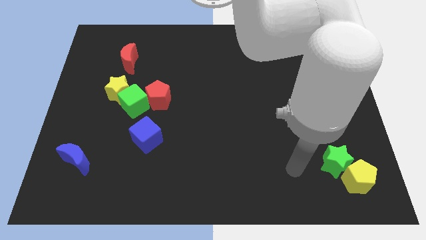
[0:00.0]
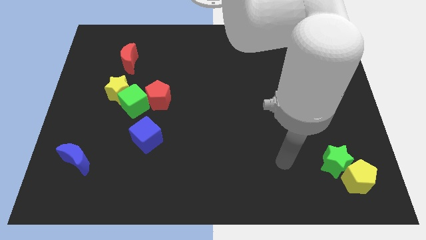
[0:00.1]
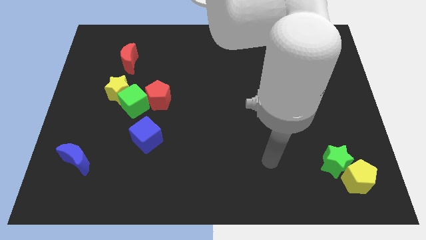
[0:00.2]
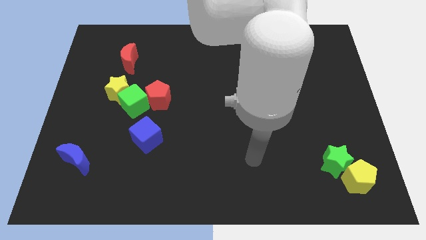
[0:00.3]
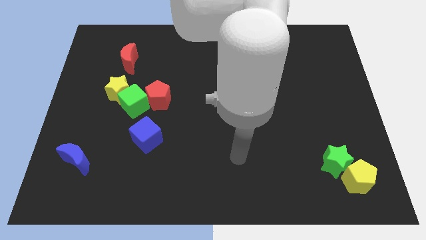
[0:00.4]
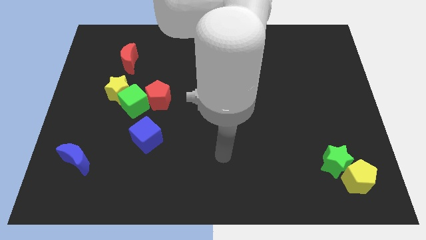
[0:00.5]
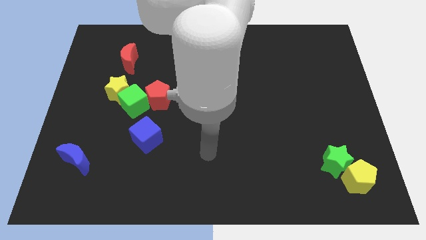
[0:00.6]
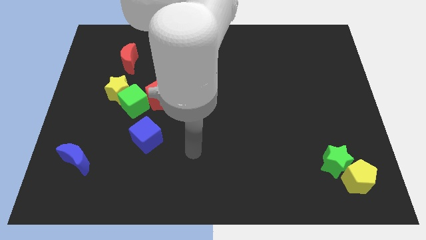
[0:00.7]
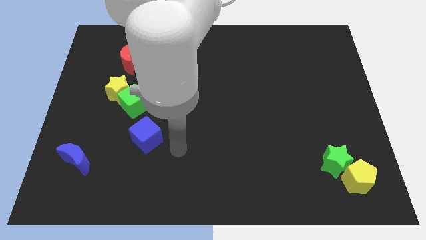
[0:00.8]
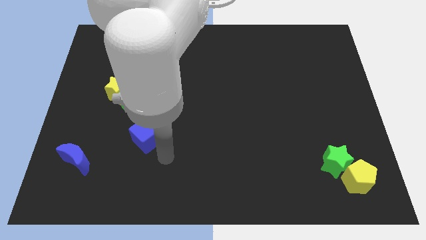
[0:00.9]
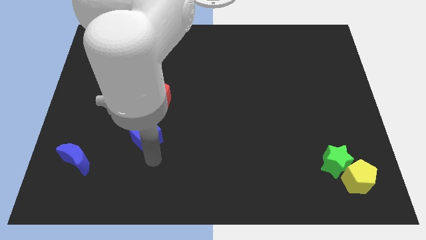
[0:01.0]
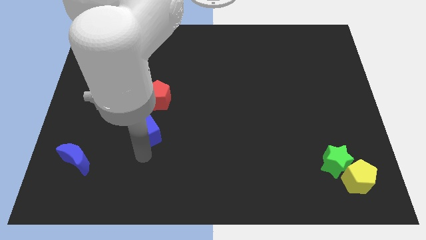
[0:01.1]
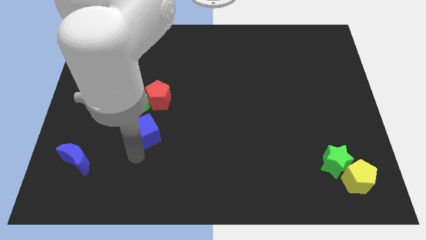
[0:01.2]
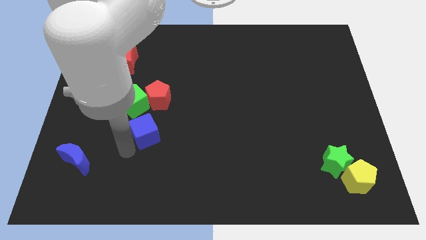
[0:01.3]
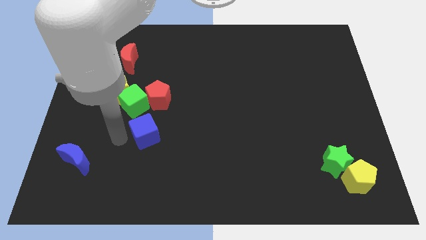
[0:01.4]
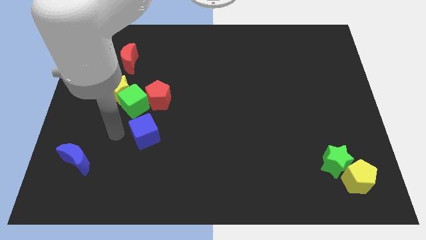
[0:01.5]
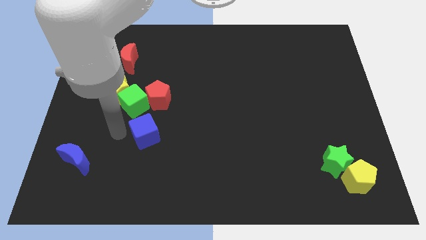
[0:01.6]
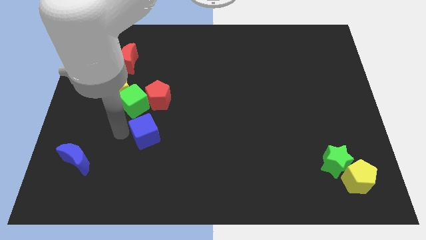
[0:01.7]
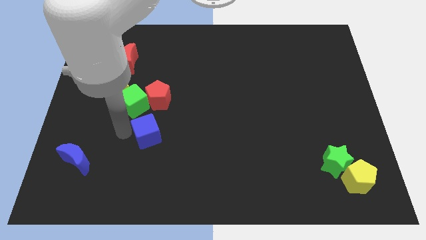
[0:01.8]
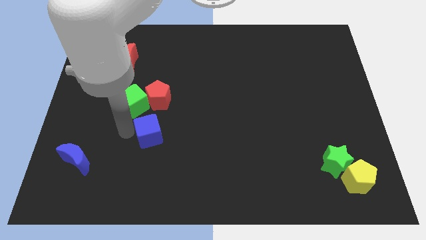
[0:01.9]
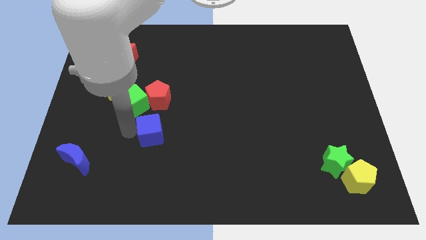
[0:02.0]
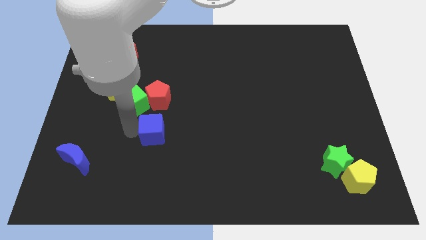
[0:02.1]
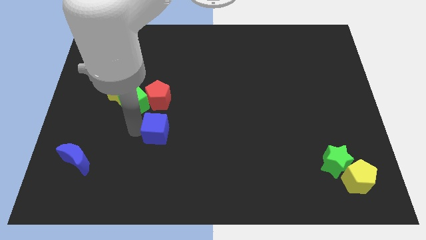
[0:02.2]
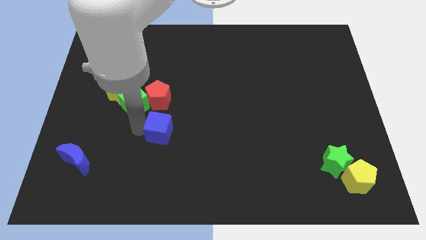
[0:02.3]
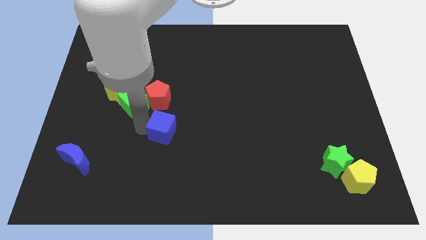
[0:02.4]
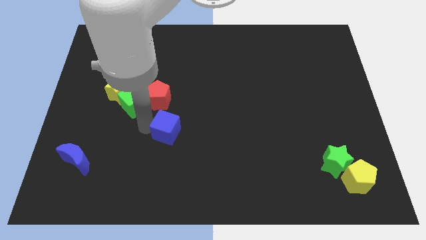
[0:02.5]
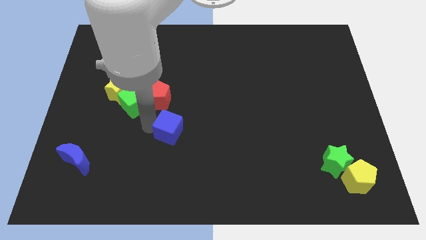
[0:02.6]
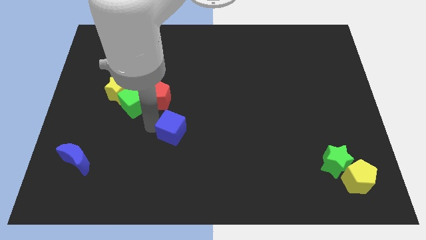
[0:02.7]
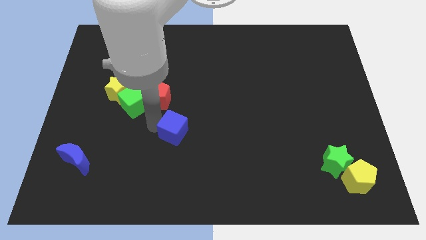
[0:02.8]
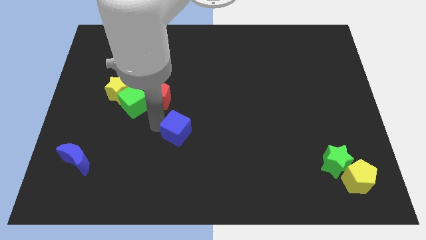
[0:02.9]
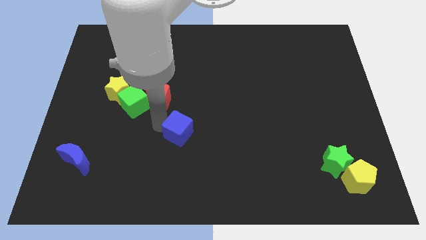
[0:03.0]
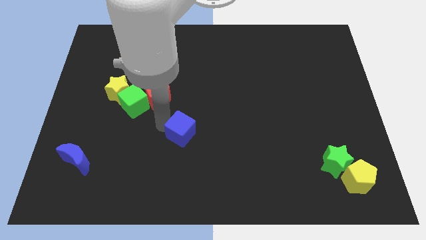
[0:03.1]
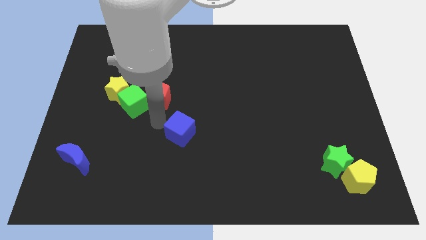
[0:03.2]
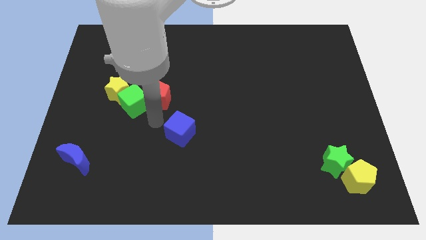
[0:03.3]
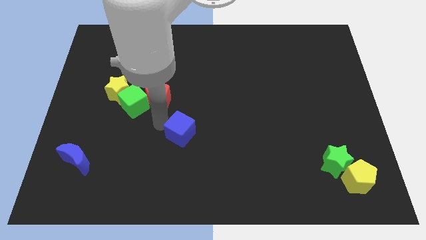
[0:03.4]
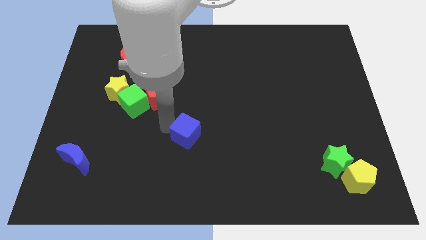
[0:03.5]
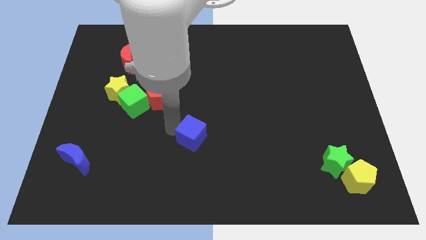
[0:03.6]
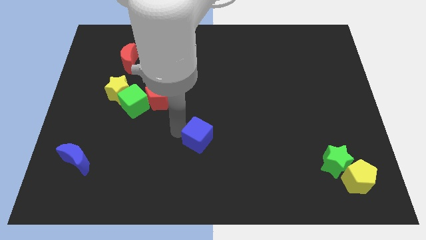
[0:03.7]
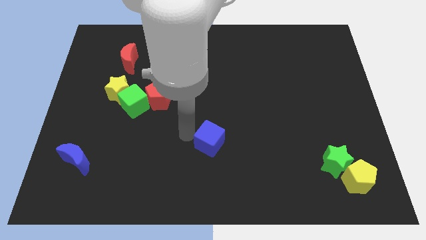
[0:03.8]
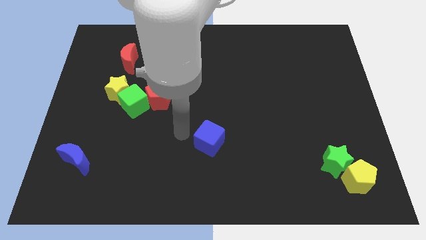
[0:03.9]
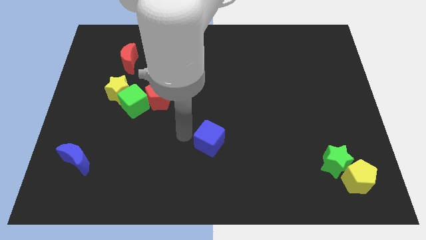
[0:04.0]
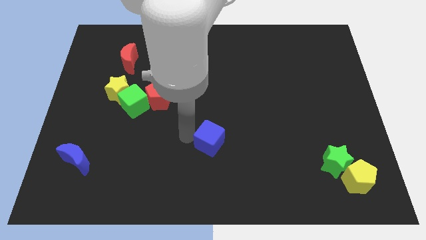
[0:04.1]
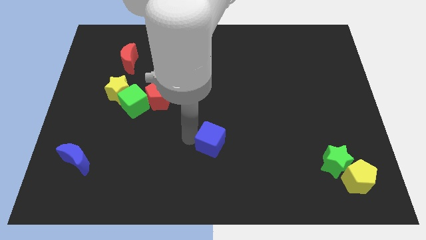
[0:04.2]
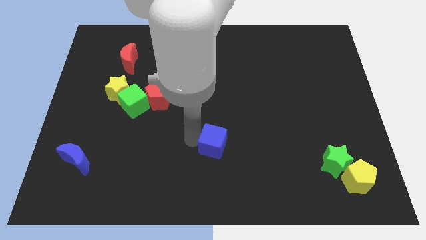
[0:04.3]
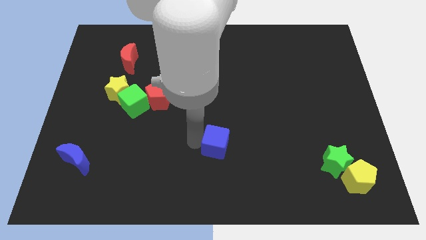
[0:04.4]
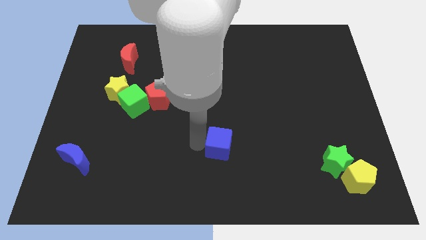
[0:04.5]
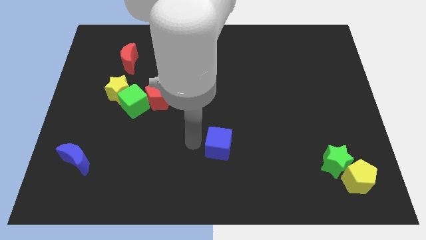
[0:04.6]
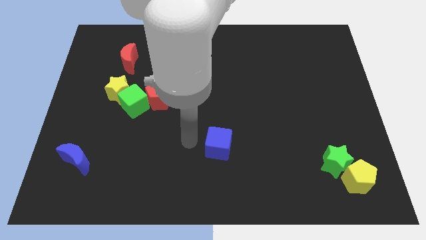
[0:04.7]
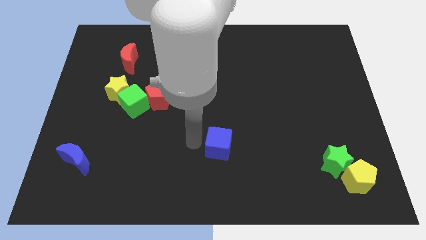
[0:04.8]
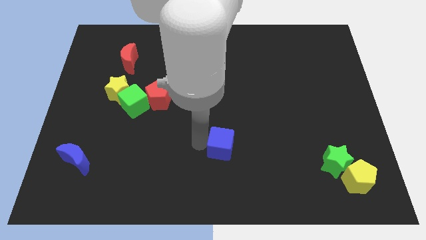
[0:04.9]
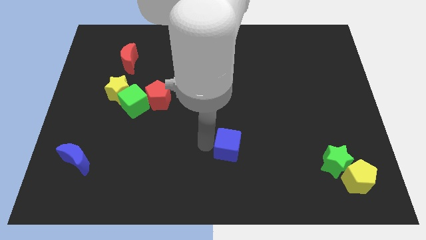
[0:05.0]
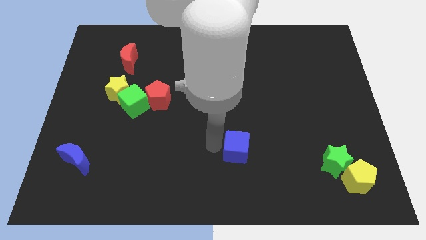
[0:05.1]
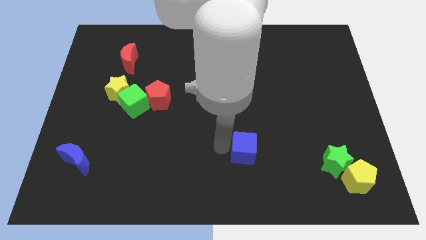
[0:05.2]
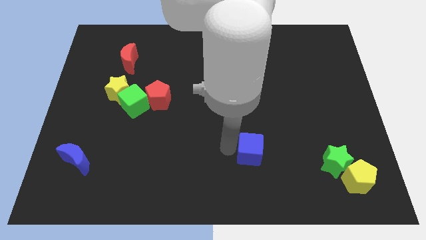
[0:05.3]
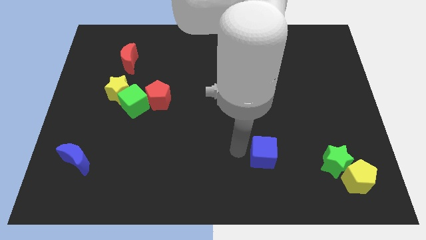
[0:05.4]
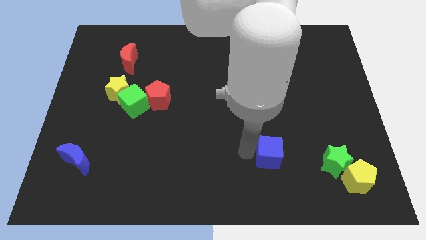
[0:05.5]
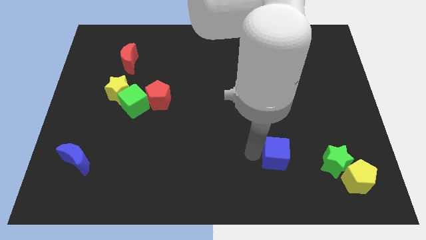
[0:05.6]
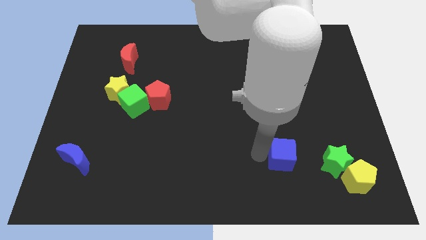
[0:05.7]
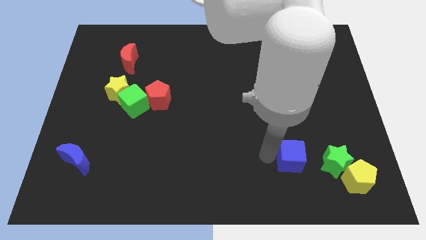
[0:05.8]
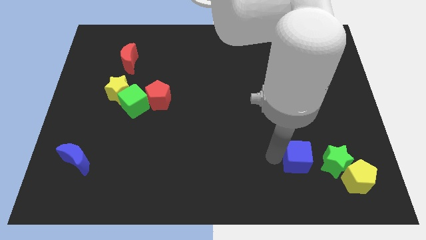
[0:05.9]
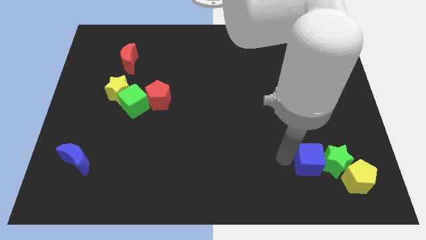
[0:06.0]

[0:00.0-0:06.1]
push the blue cube next to the green star

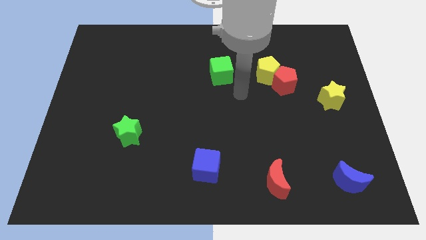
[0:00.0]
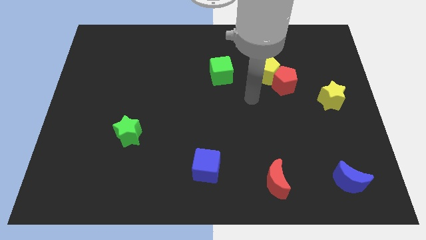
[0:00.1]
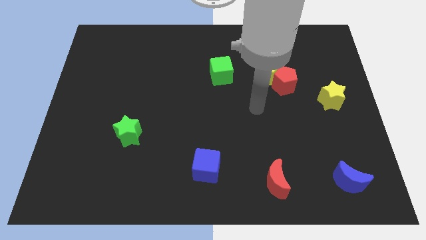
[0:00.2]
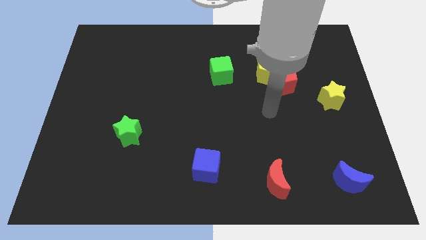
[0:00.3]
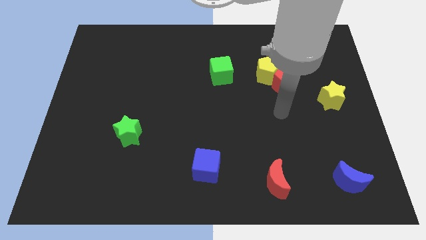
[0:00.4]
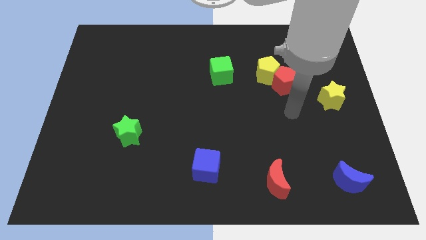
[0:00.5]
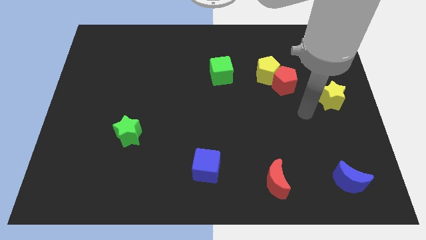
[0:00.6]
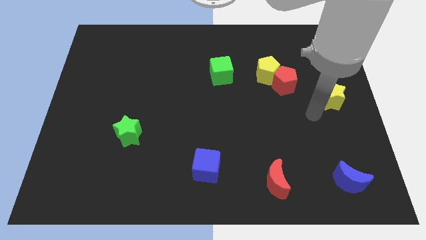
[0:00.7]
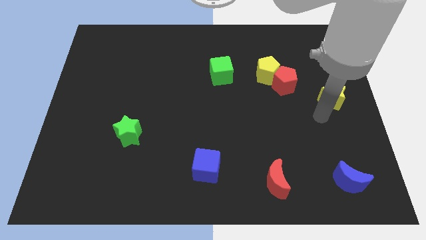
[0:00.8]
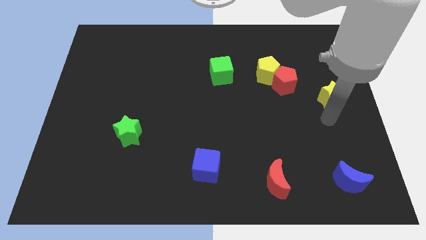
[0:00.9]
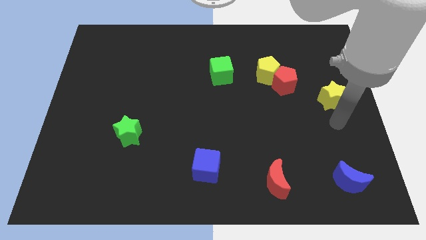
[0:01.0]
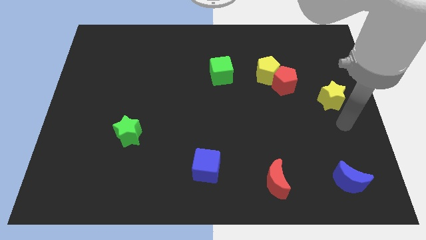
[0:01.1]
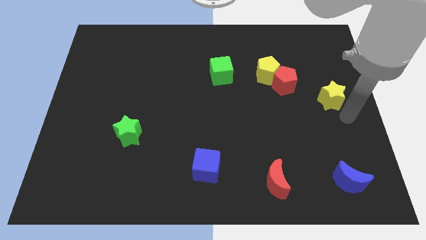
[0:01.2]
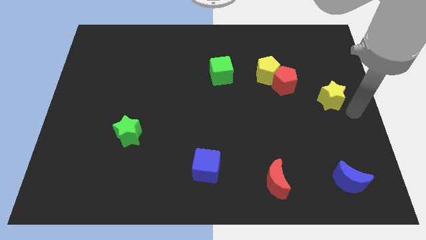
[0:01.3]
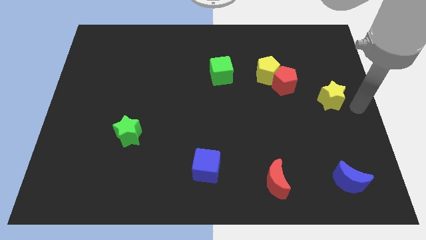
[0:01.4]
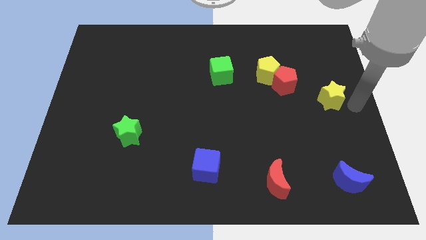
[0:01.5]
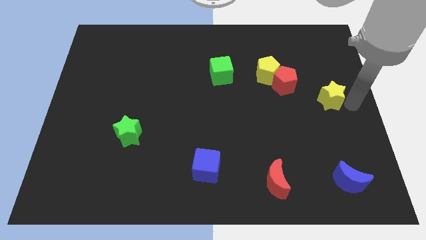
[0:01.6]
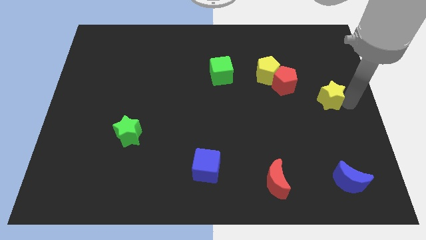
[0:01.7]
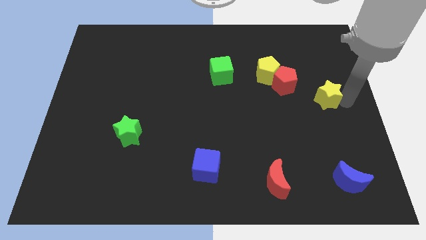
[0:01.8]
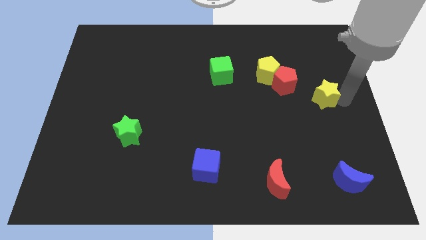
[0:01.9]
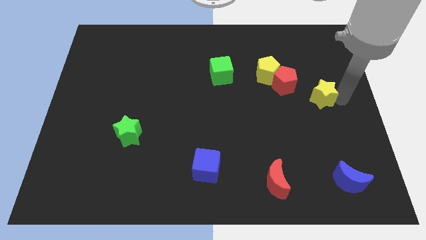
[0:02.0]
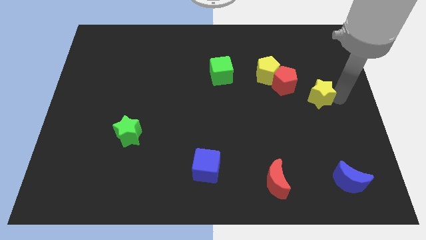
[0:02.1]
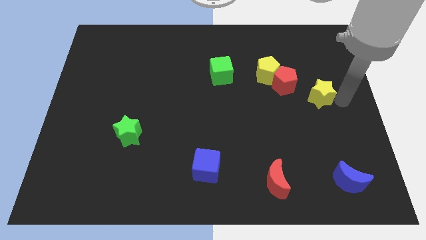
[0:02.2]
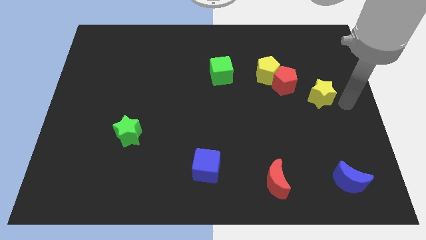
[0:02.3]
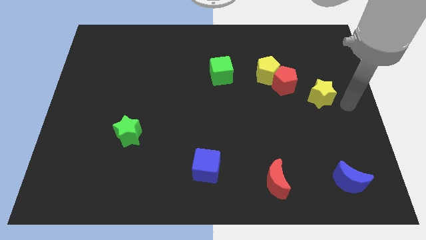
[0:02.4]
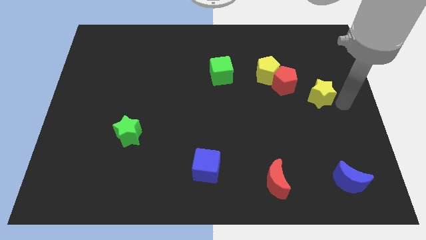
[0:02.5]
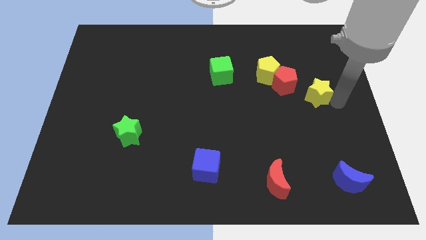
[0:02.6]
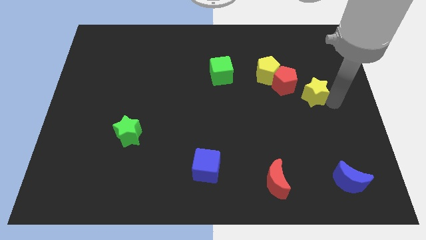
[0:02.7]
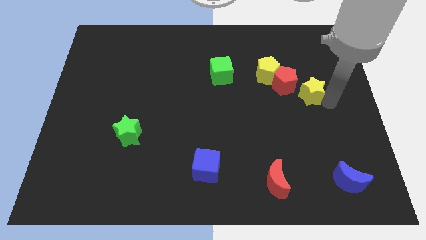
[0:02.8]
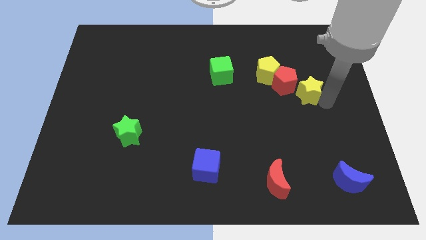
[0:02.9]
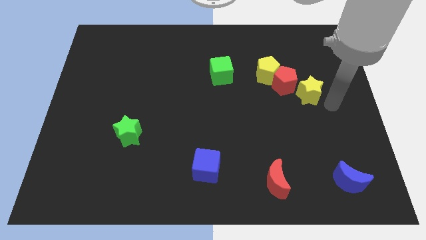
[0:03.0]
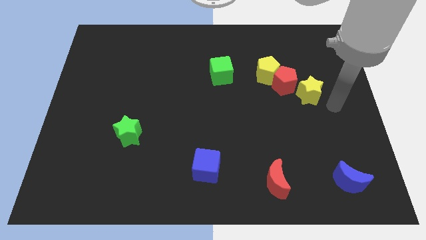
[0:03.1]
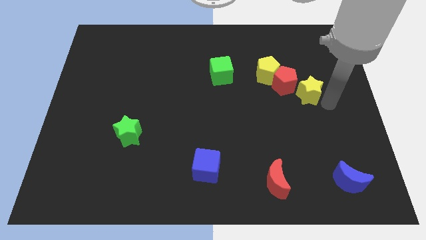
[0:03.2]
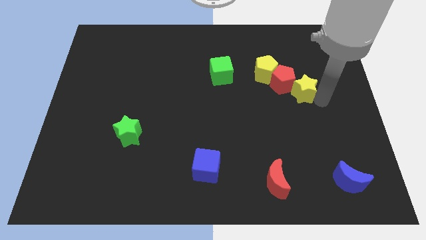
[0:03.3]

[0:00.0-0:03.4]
put the yellow star next to the red pentagon
